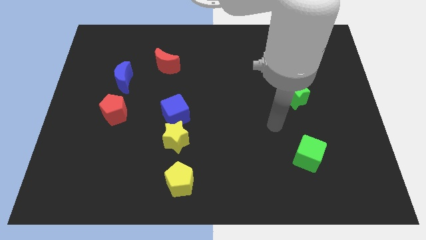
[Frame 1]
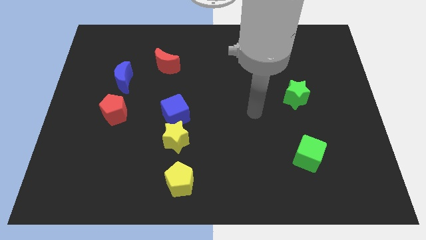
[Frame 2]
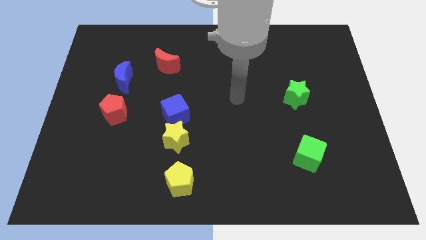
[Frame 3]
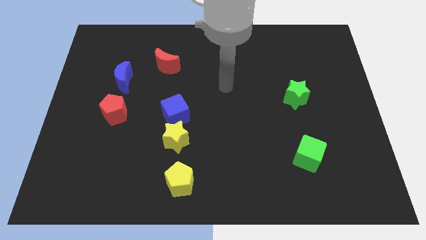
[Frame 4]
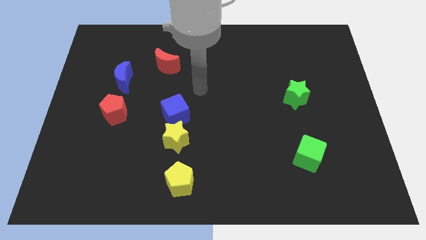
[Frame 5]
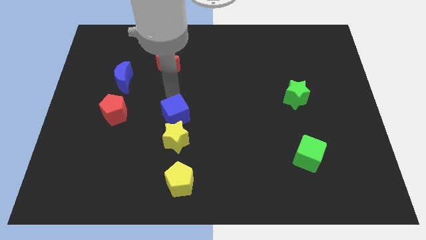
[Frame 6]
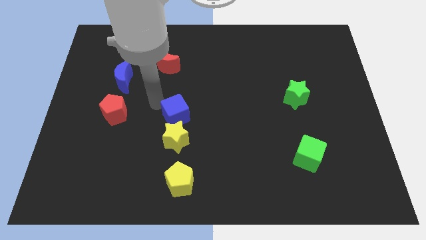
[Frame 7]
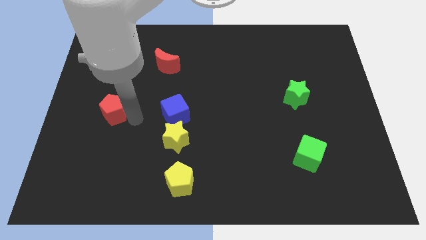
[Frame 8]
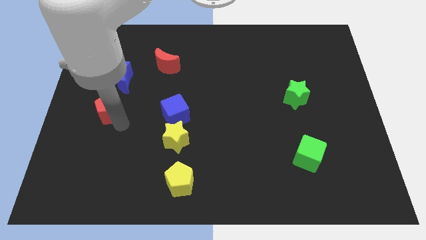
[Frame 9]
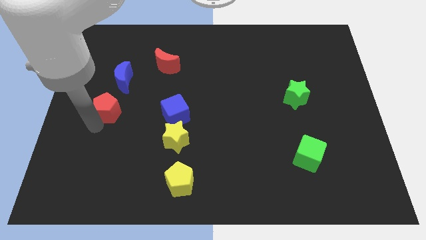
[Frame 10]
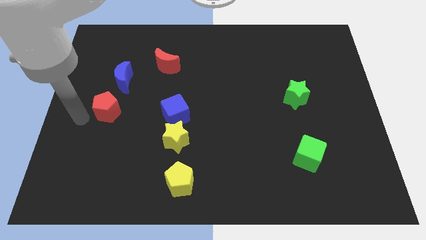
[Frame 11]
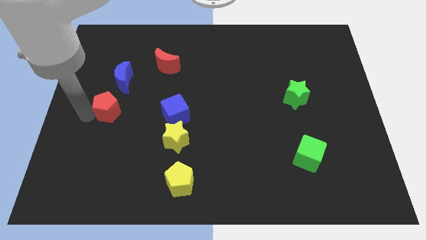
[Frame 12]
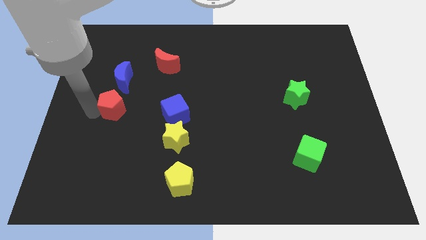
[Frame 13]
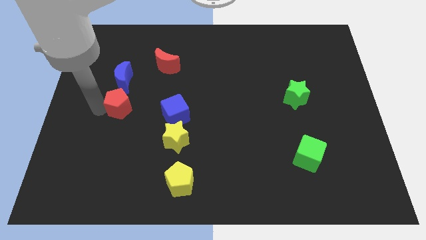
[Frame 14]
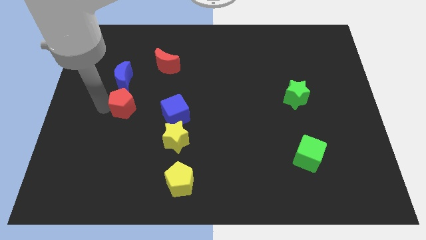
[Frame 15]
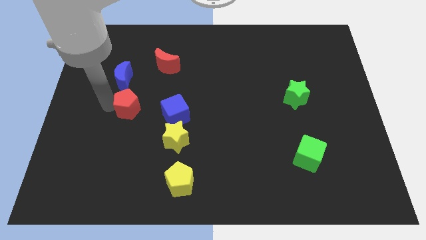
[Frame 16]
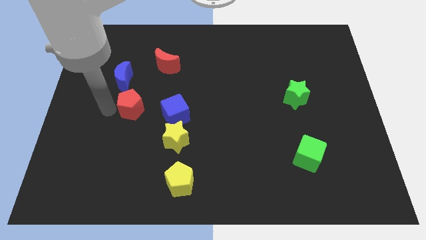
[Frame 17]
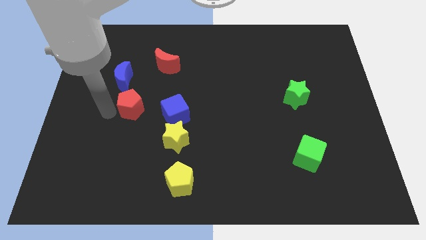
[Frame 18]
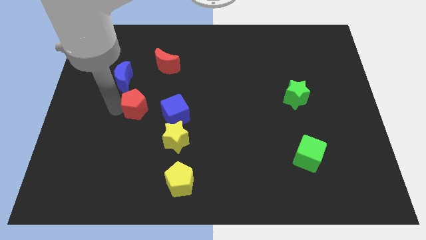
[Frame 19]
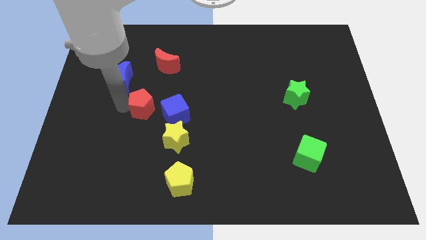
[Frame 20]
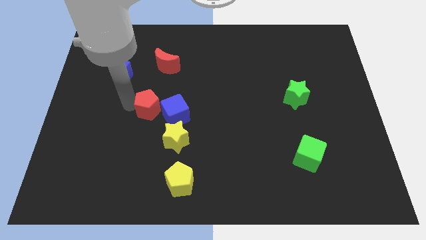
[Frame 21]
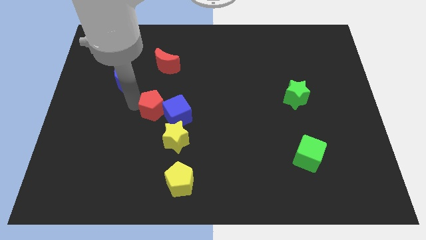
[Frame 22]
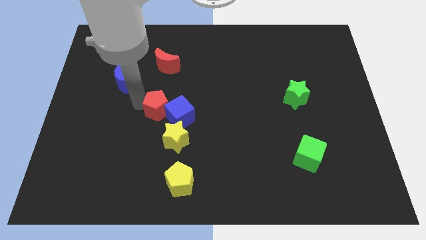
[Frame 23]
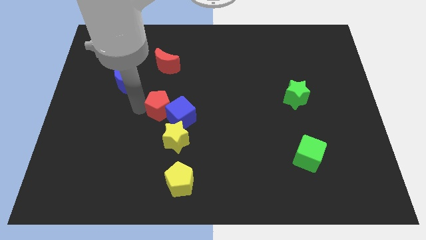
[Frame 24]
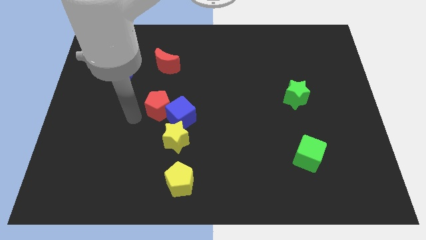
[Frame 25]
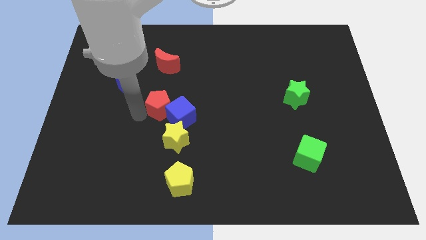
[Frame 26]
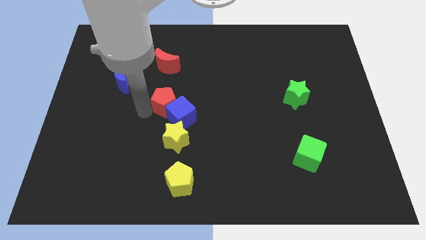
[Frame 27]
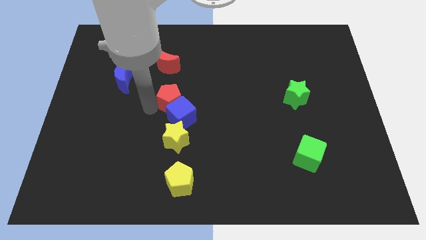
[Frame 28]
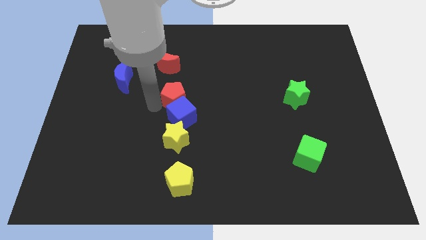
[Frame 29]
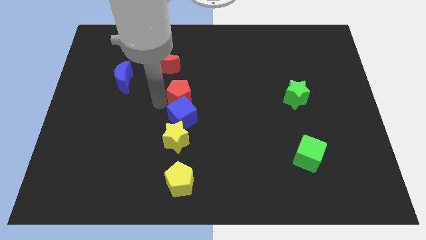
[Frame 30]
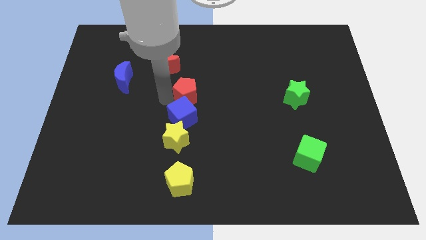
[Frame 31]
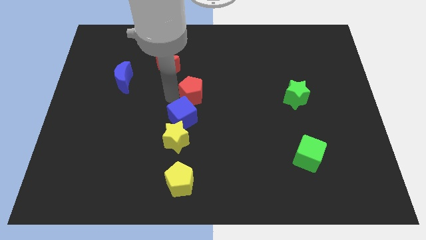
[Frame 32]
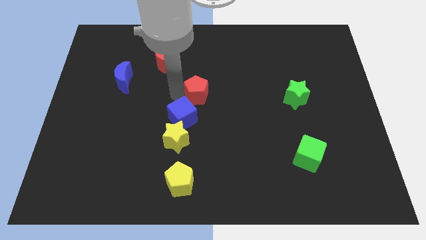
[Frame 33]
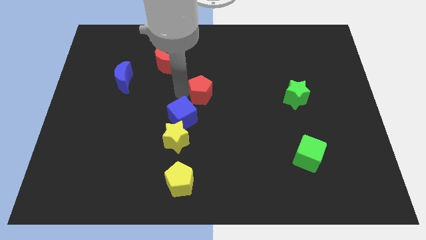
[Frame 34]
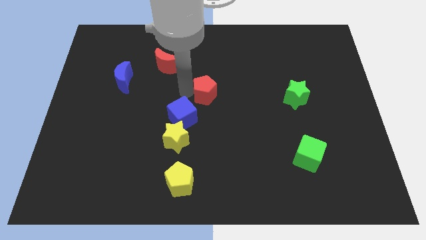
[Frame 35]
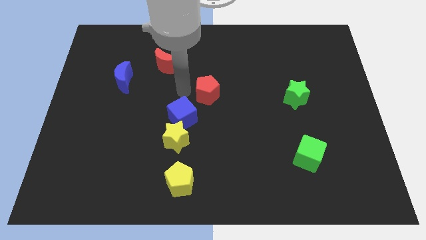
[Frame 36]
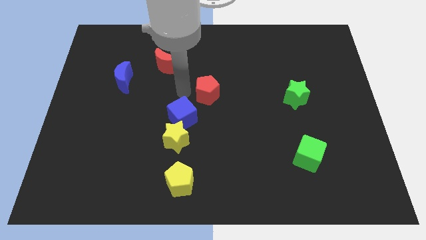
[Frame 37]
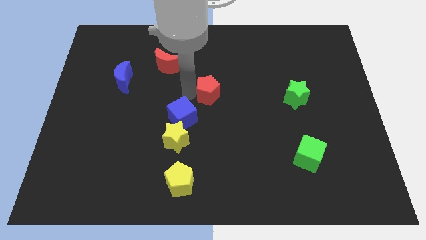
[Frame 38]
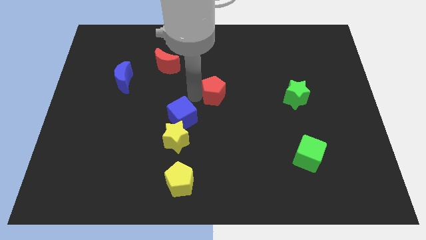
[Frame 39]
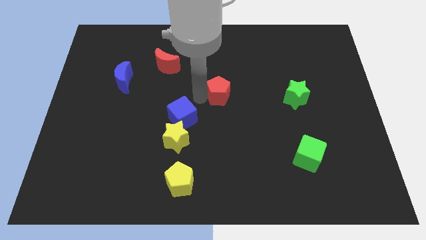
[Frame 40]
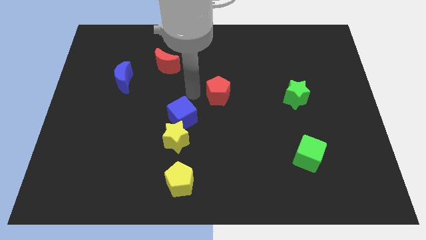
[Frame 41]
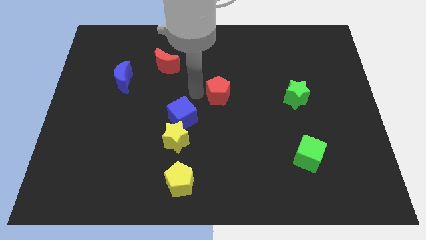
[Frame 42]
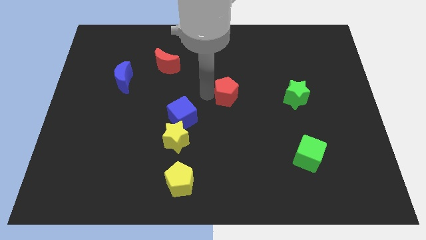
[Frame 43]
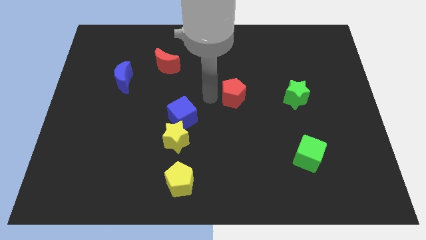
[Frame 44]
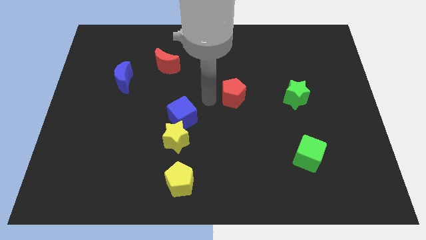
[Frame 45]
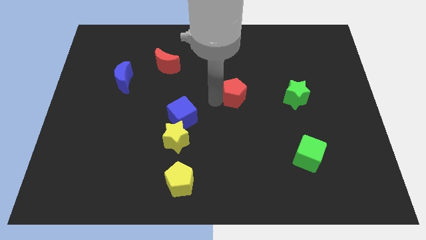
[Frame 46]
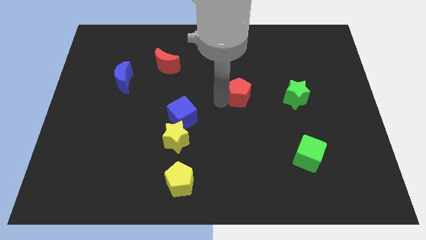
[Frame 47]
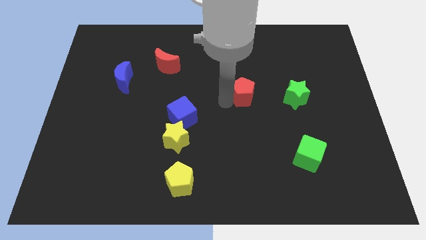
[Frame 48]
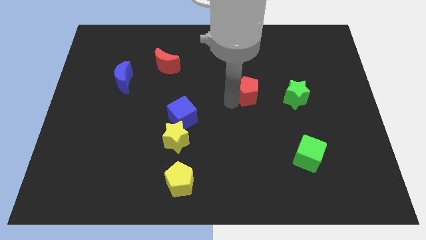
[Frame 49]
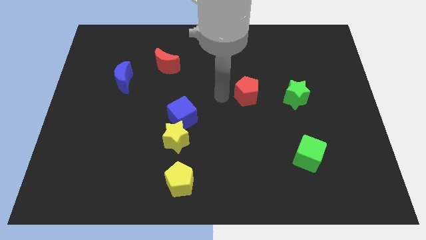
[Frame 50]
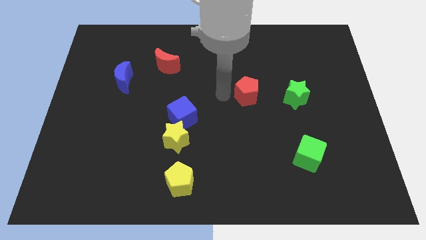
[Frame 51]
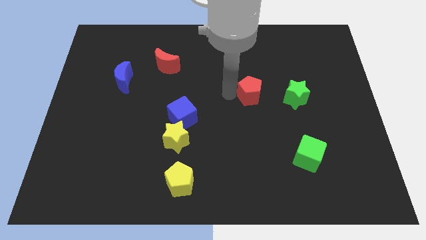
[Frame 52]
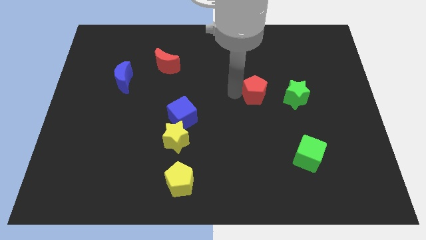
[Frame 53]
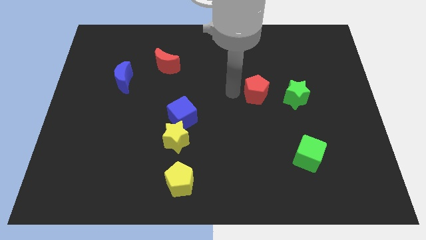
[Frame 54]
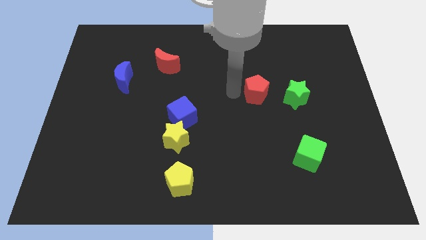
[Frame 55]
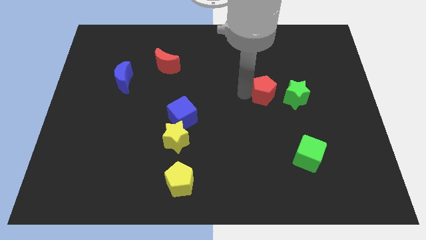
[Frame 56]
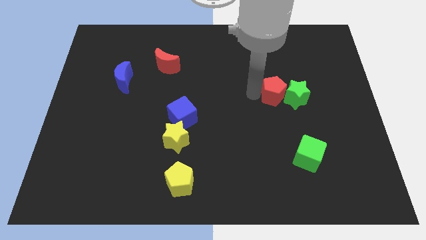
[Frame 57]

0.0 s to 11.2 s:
move the red pentagon close to the green star
